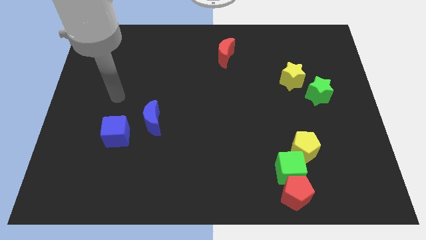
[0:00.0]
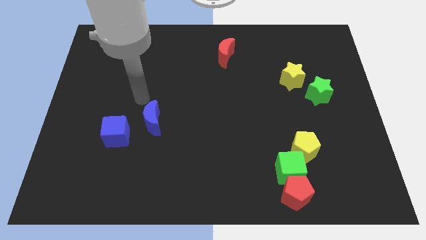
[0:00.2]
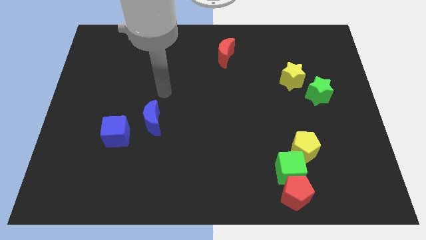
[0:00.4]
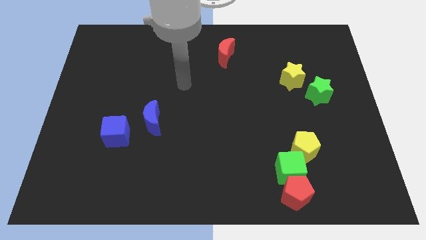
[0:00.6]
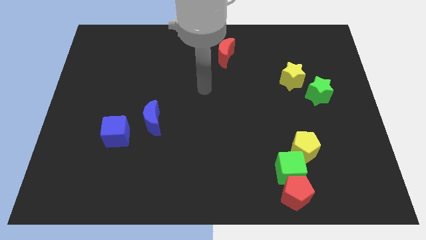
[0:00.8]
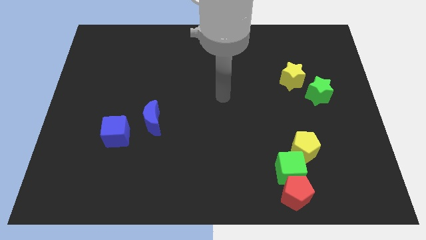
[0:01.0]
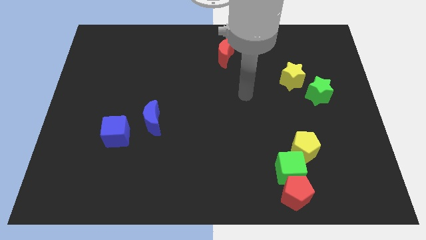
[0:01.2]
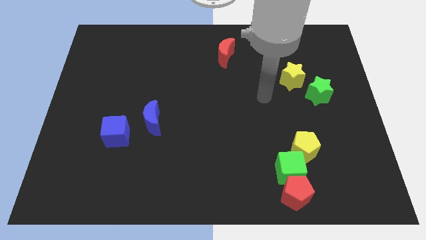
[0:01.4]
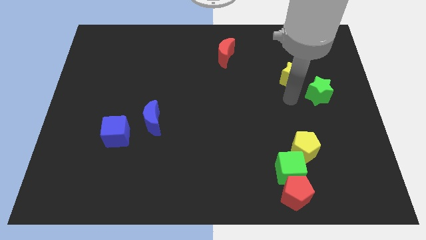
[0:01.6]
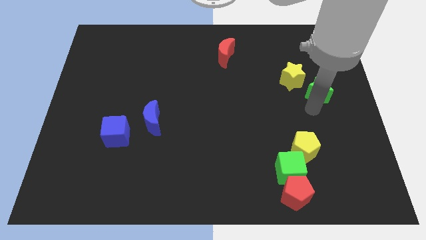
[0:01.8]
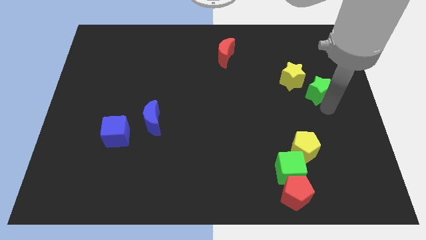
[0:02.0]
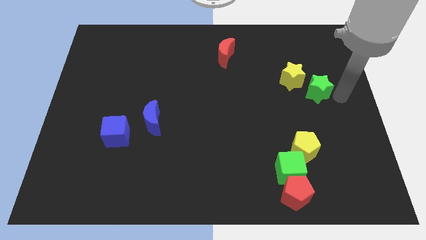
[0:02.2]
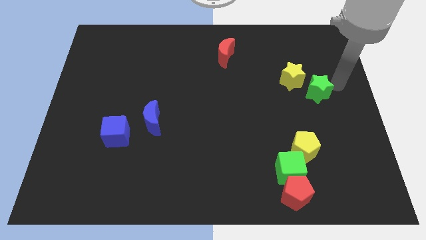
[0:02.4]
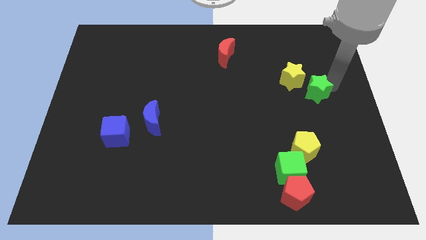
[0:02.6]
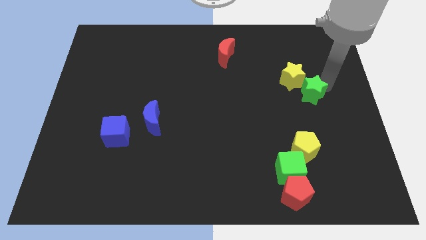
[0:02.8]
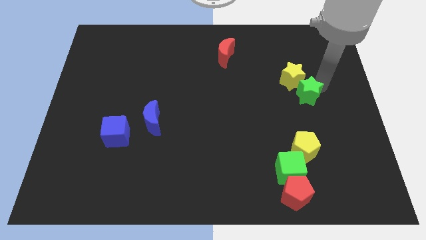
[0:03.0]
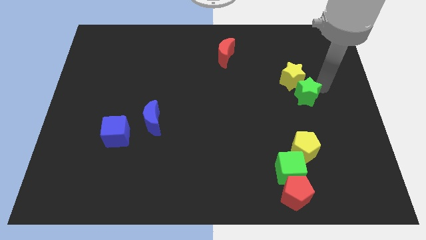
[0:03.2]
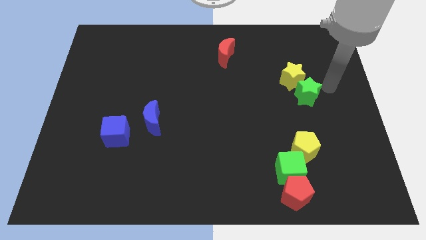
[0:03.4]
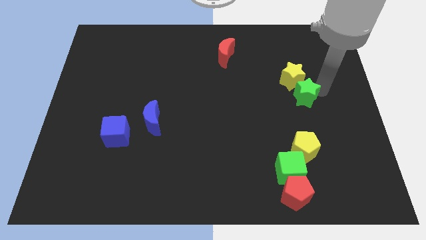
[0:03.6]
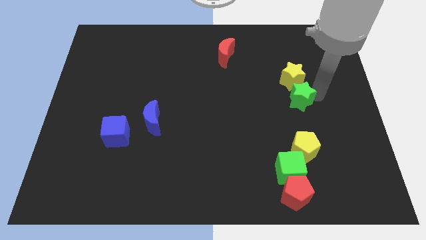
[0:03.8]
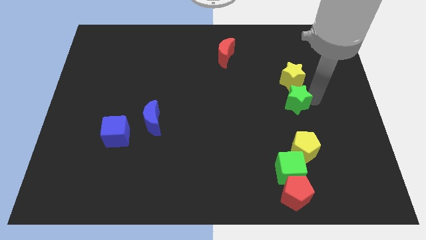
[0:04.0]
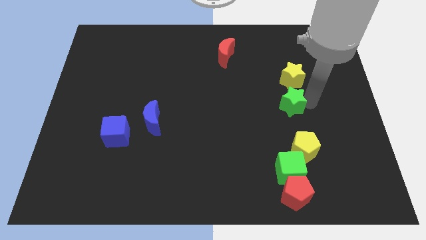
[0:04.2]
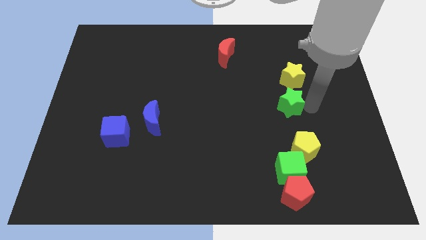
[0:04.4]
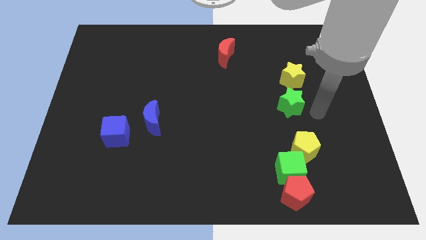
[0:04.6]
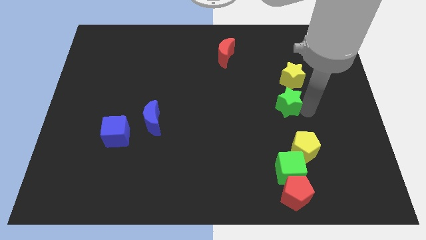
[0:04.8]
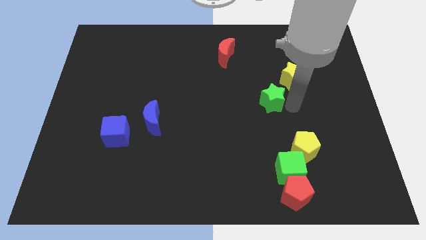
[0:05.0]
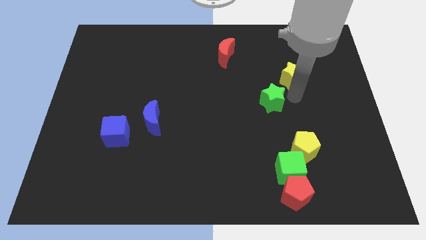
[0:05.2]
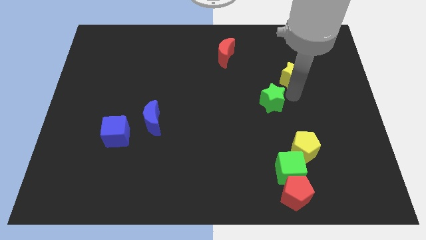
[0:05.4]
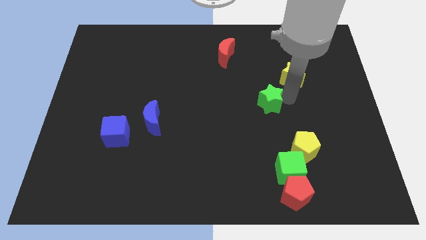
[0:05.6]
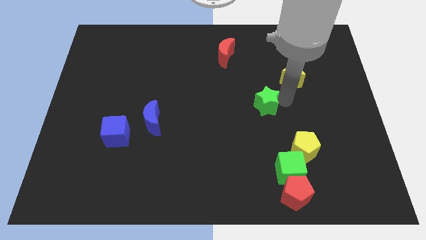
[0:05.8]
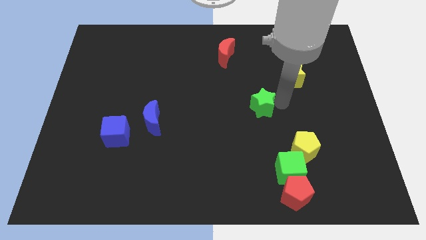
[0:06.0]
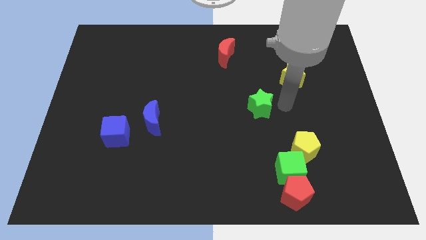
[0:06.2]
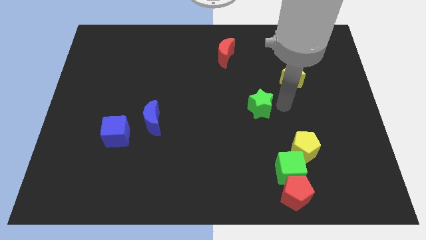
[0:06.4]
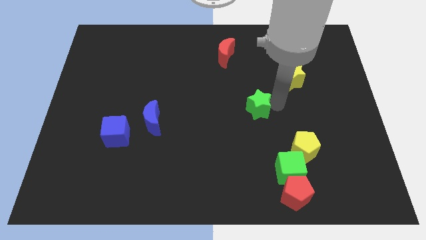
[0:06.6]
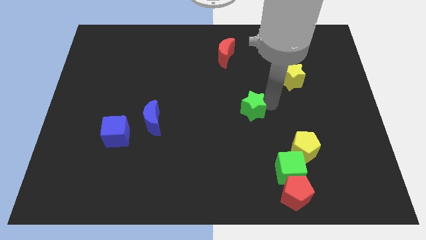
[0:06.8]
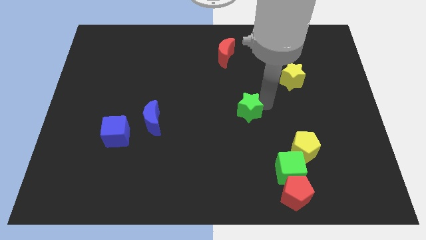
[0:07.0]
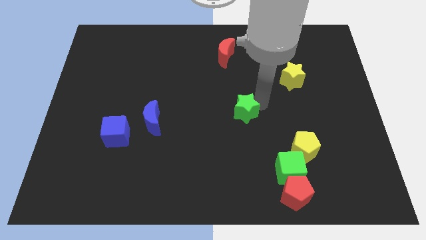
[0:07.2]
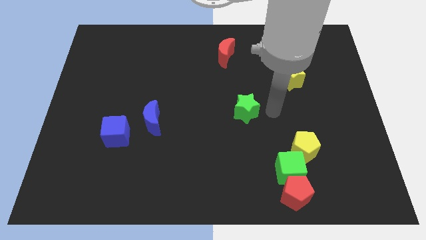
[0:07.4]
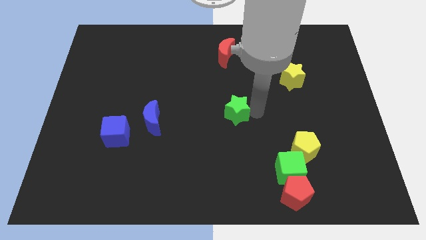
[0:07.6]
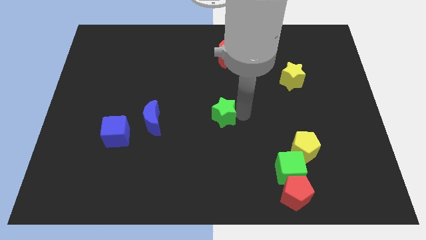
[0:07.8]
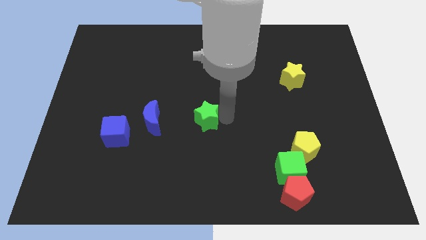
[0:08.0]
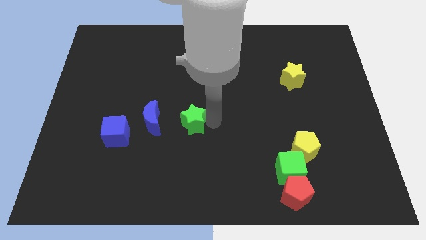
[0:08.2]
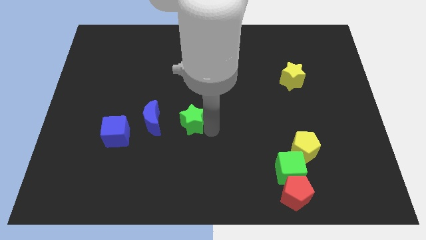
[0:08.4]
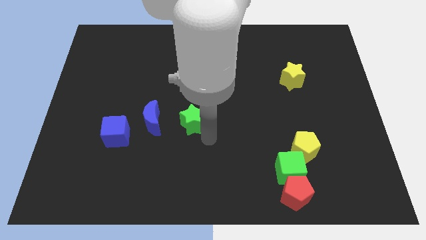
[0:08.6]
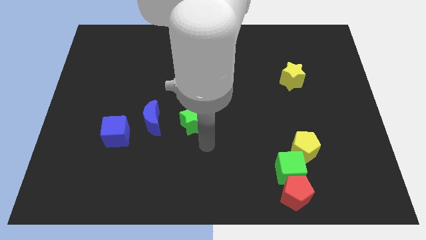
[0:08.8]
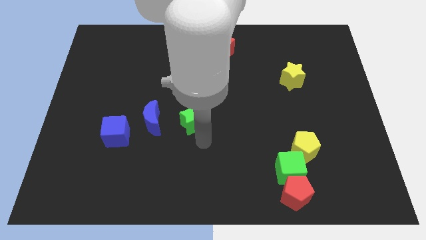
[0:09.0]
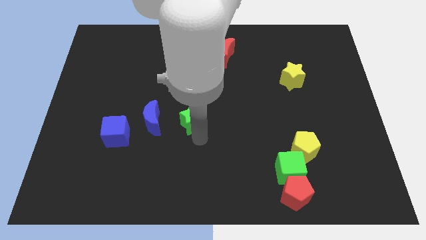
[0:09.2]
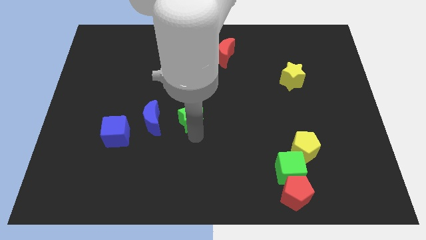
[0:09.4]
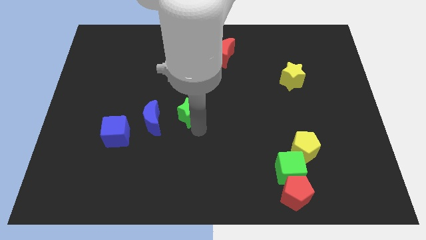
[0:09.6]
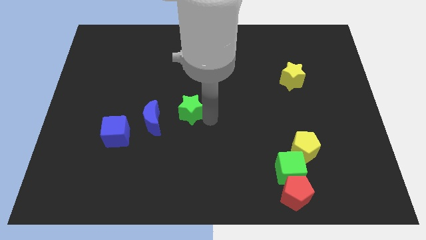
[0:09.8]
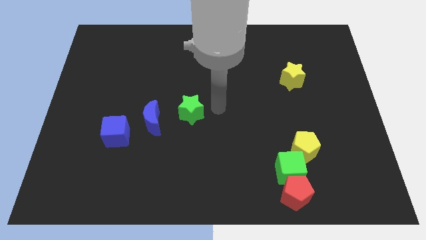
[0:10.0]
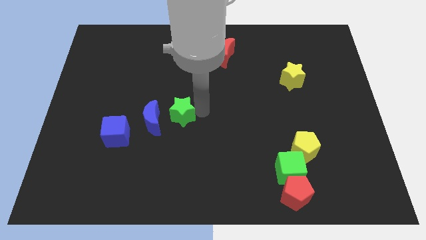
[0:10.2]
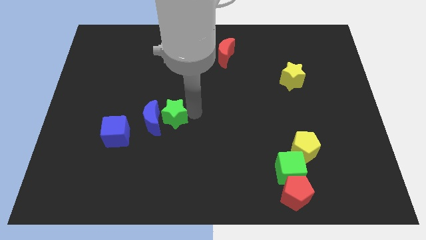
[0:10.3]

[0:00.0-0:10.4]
push the green star next to the blue moon
